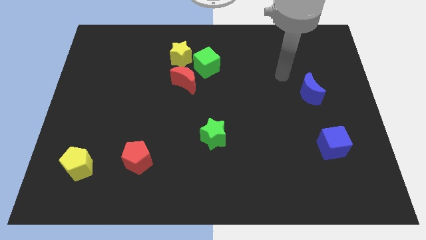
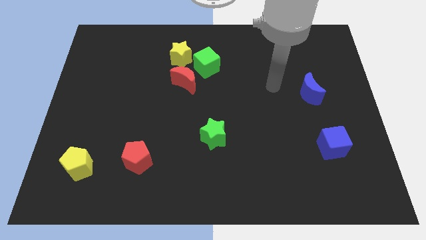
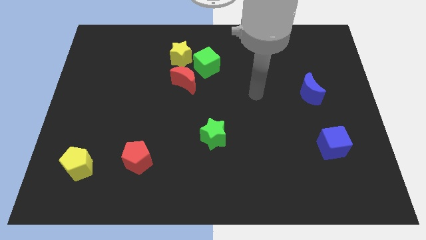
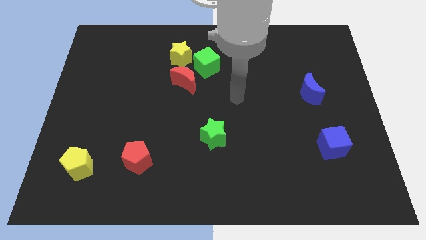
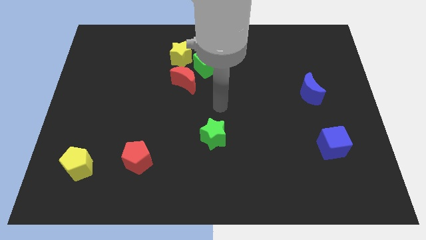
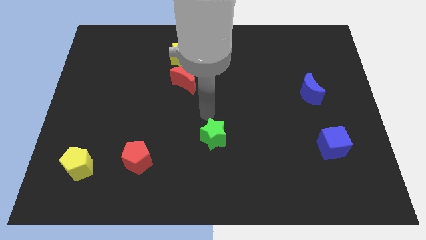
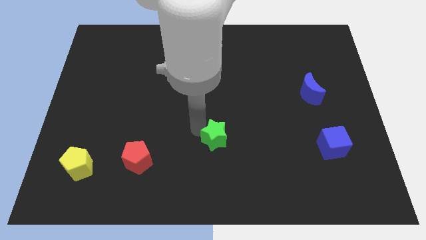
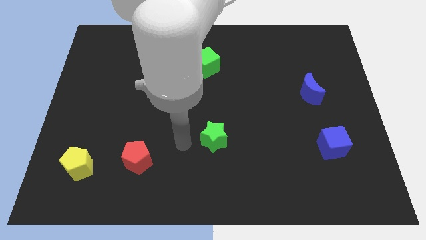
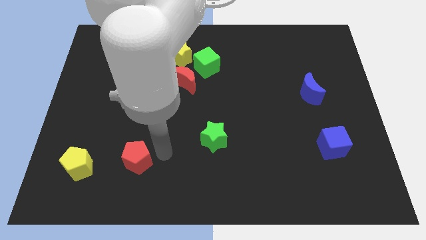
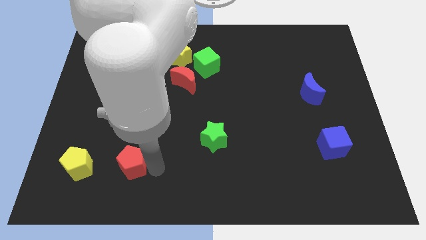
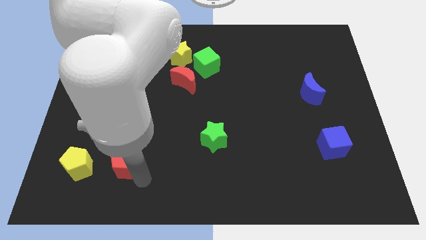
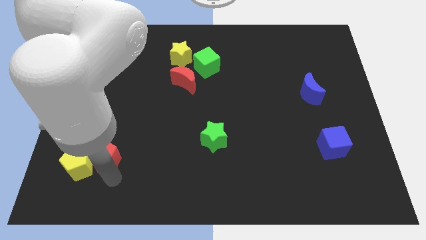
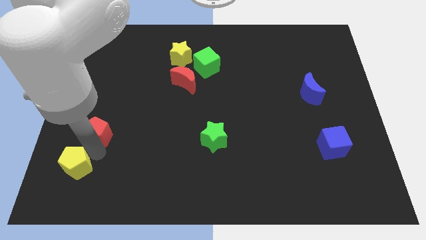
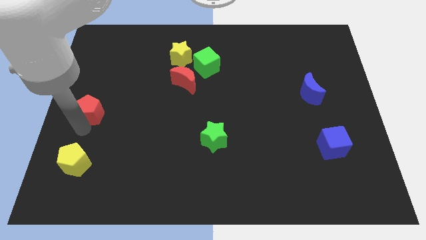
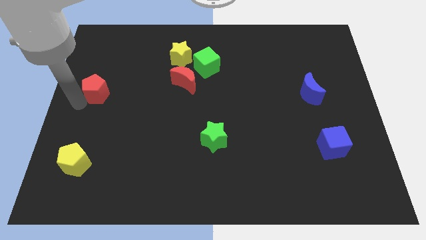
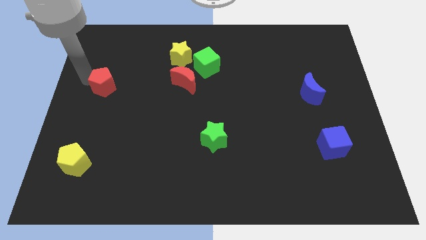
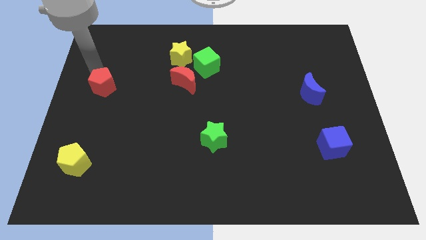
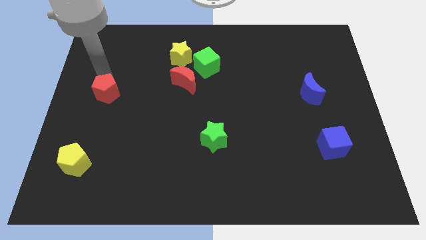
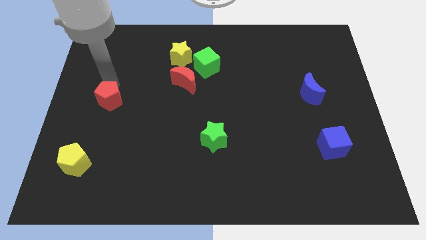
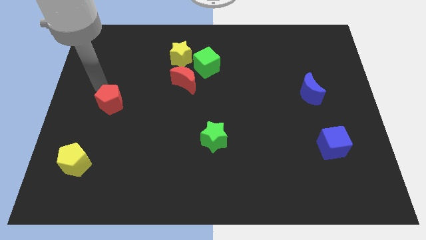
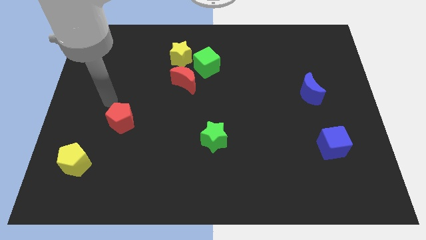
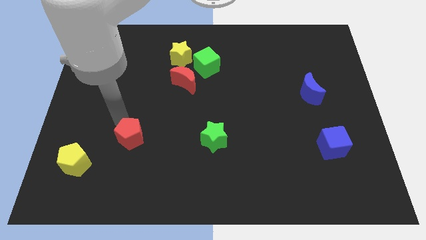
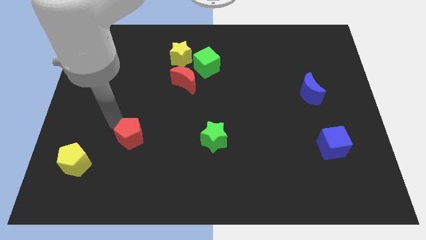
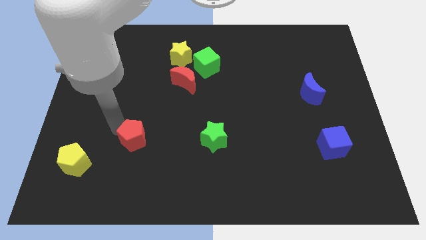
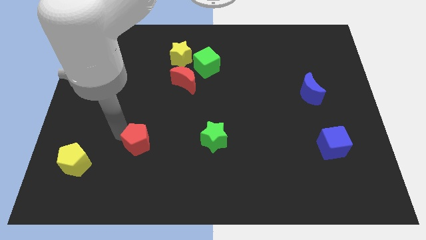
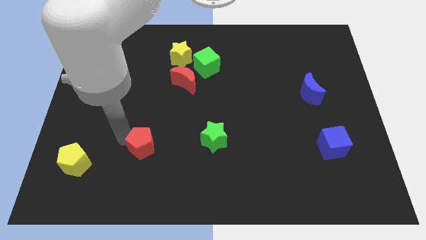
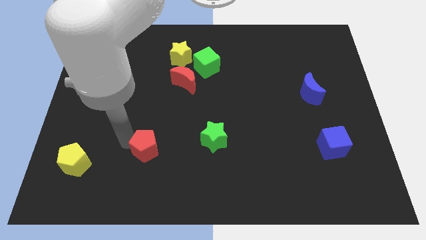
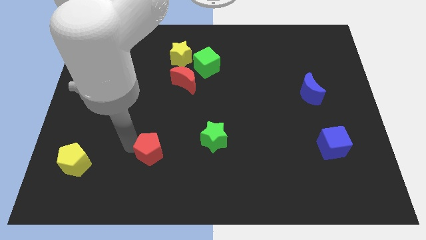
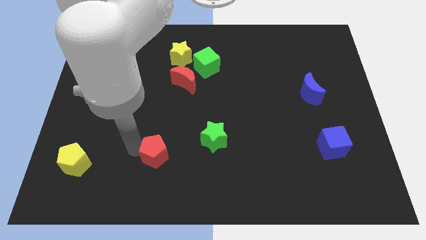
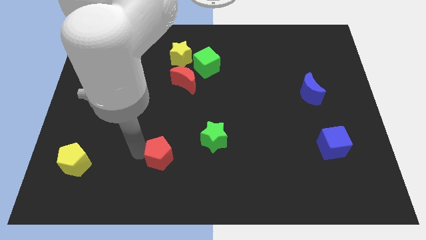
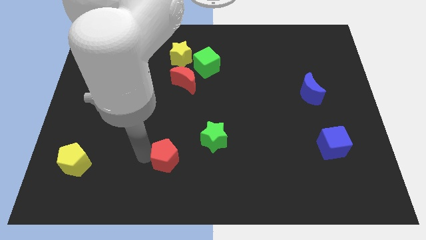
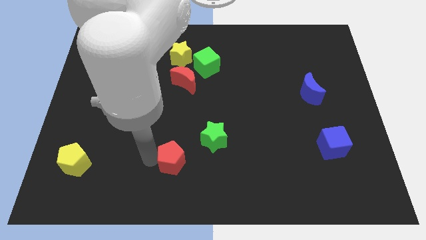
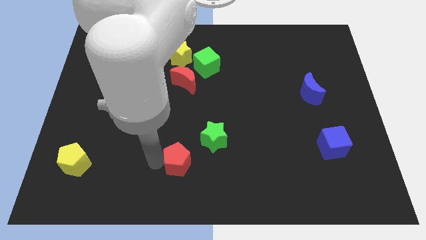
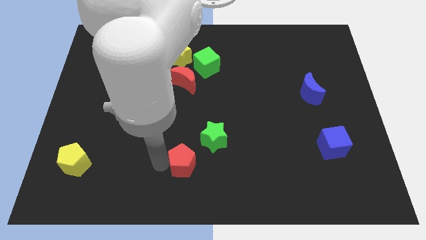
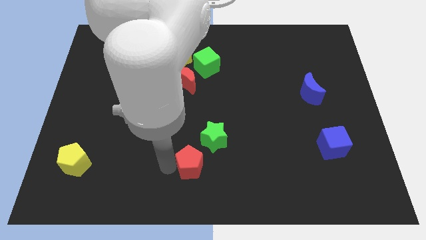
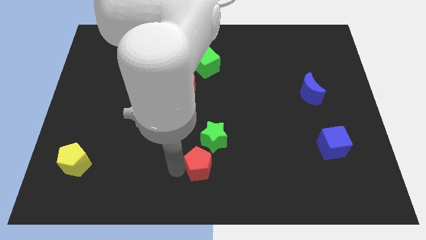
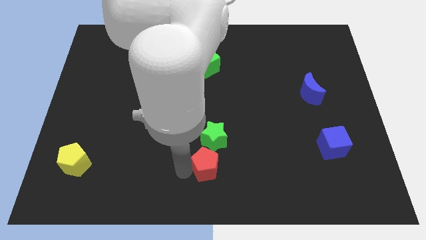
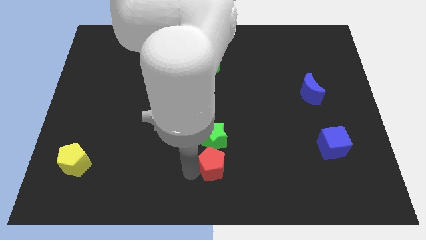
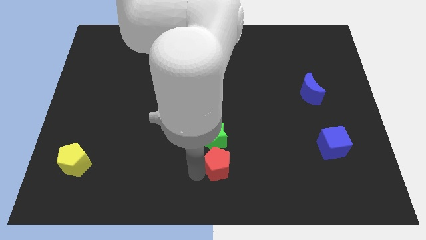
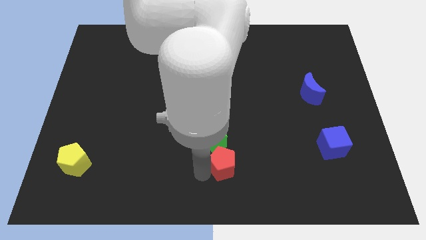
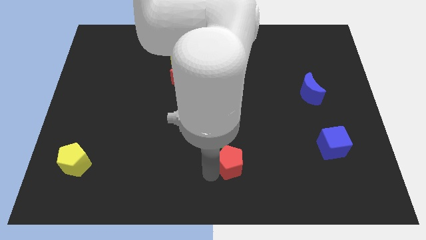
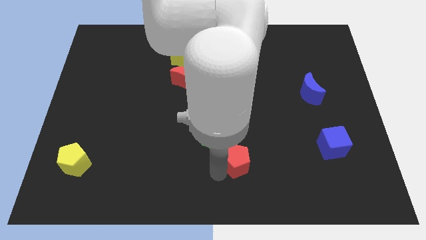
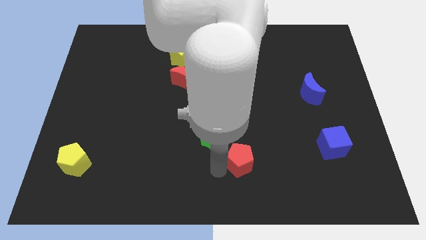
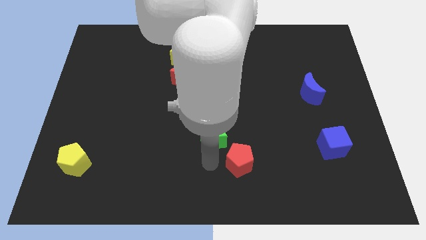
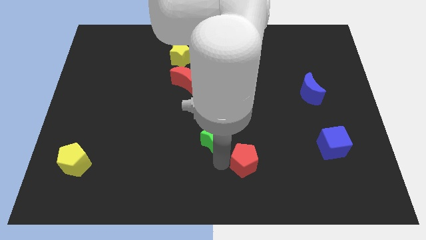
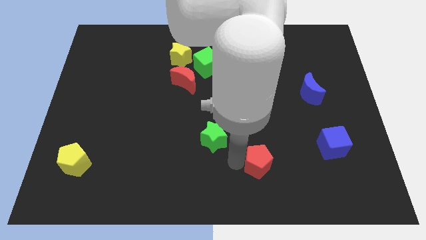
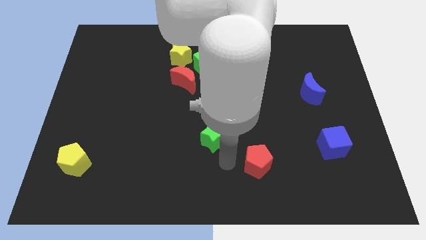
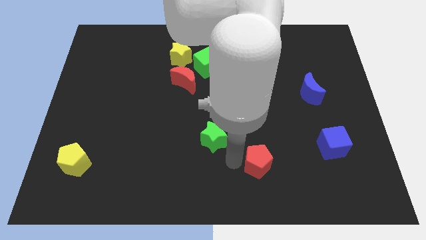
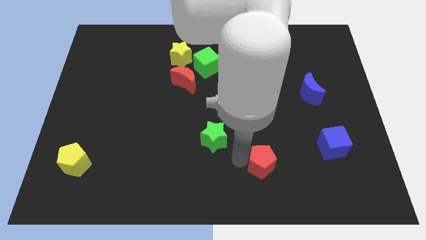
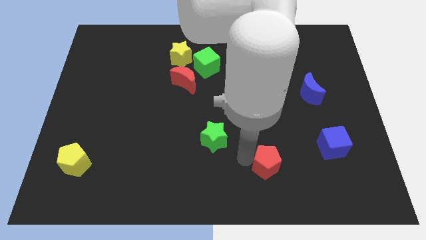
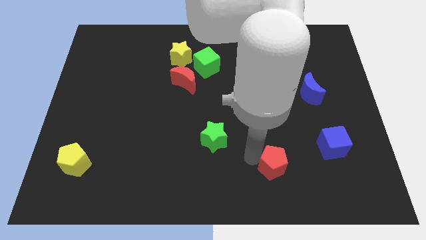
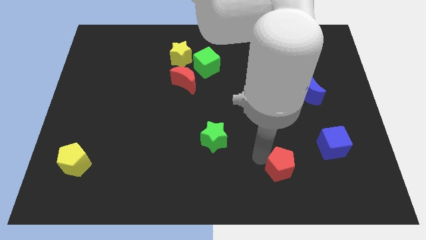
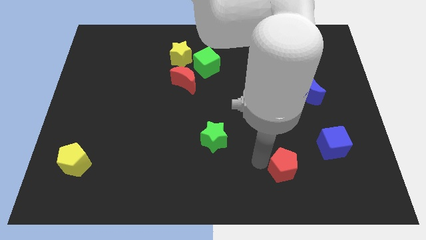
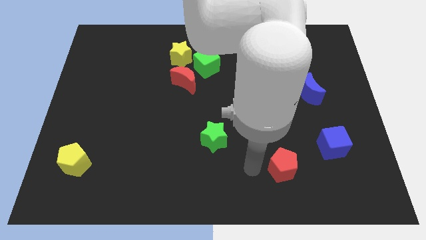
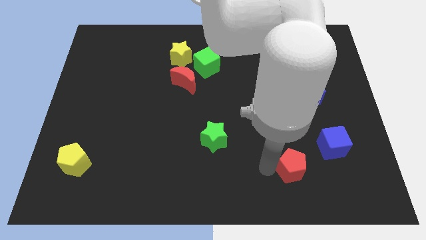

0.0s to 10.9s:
put the red pentagon to the bottom left side of the blue cube

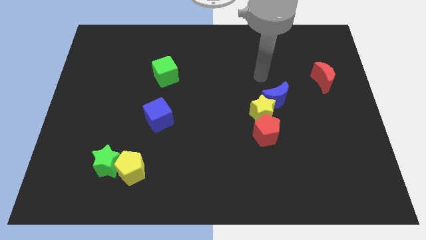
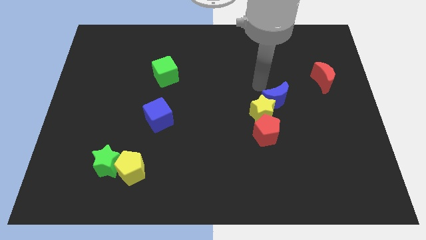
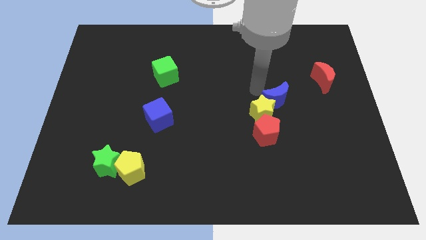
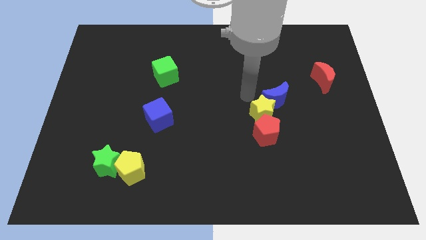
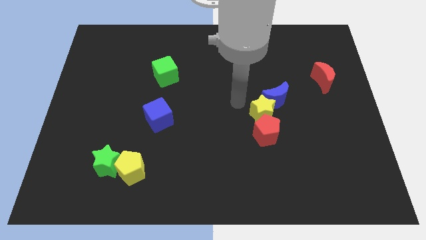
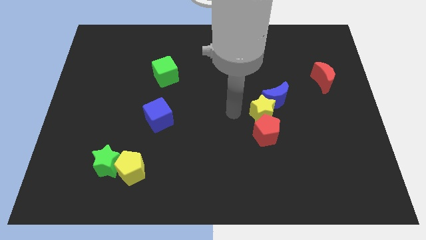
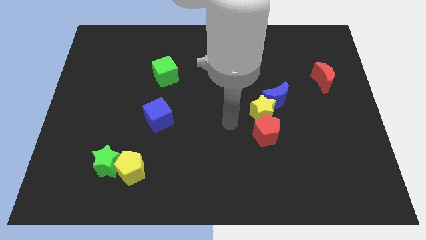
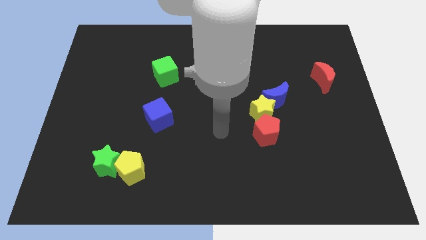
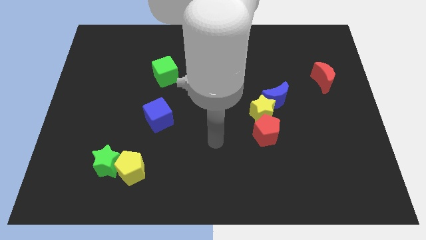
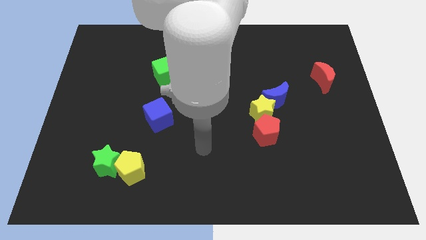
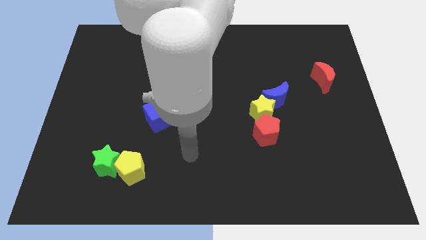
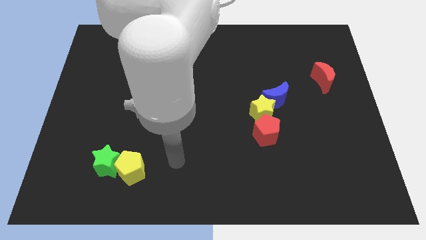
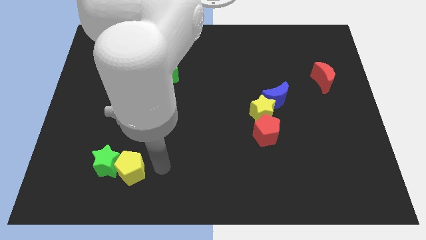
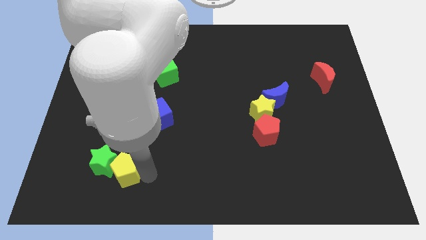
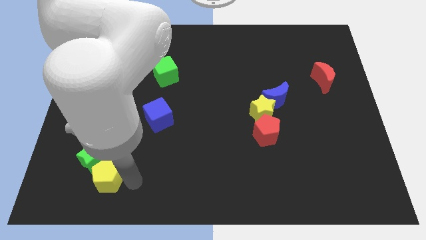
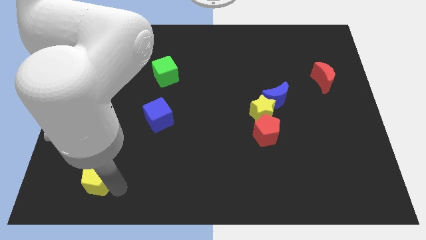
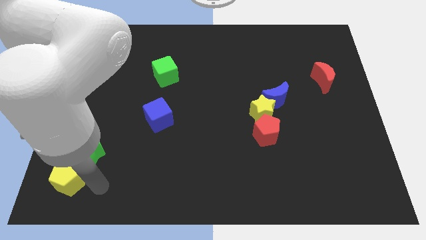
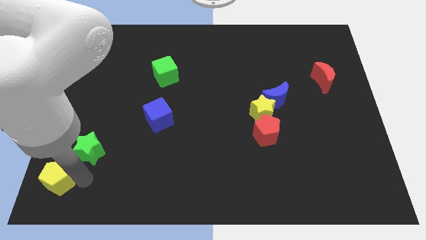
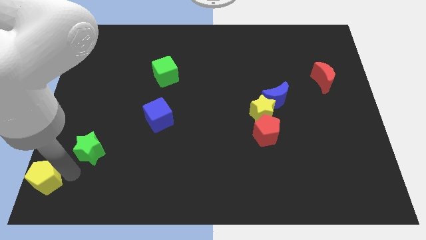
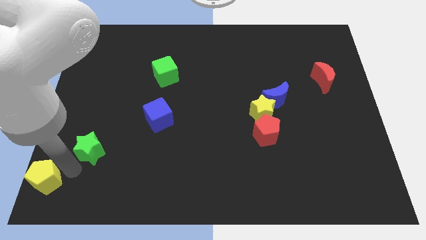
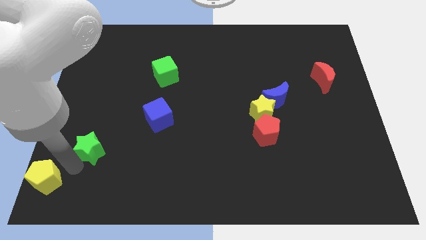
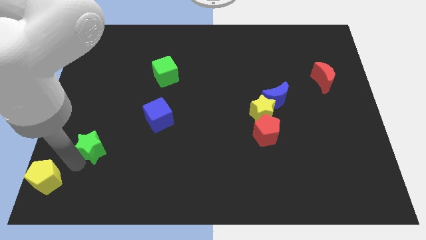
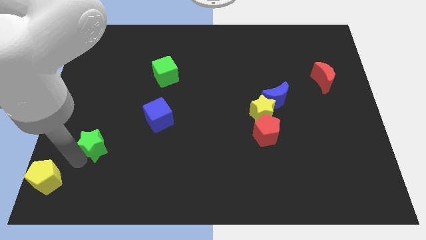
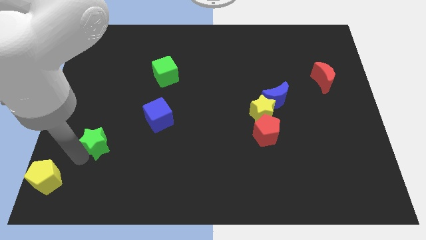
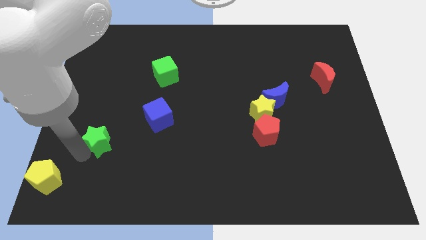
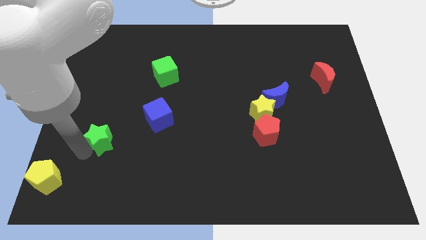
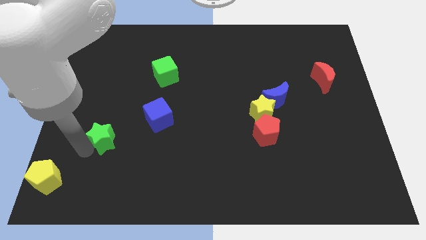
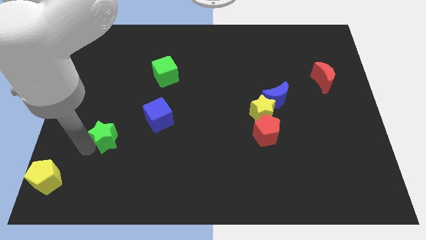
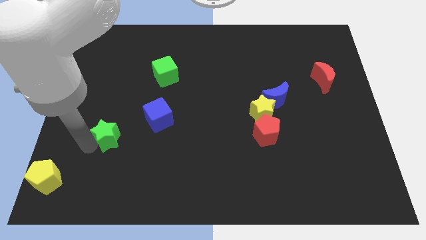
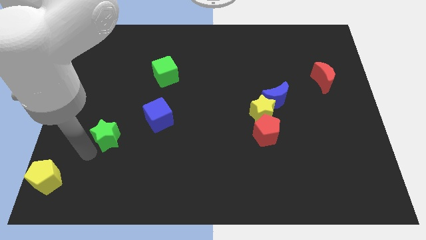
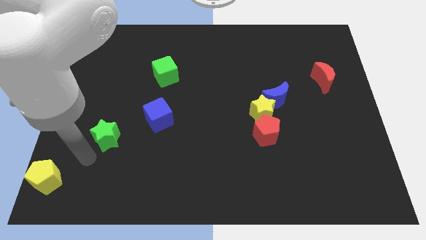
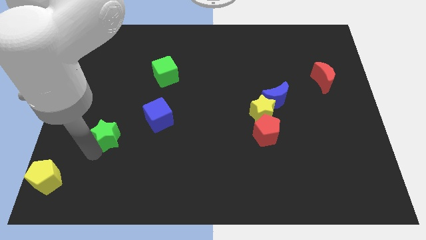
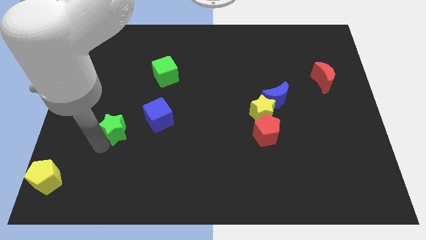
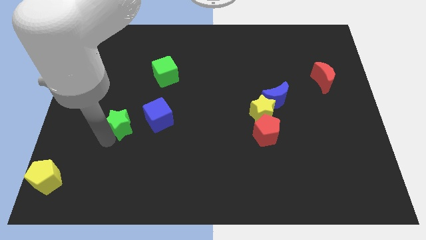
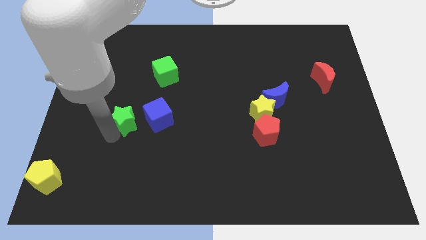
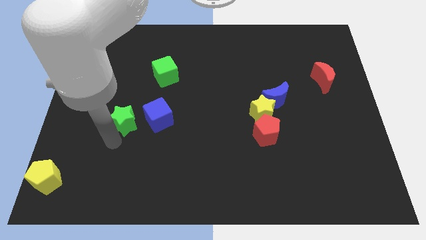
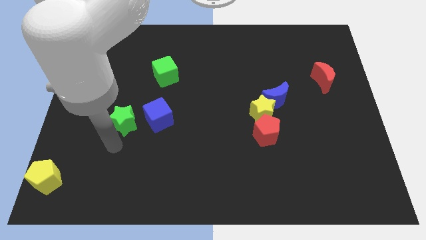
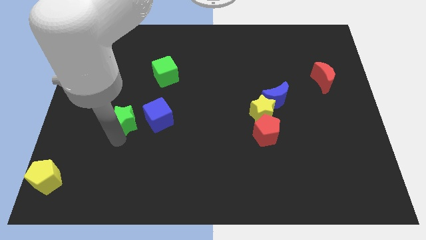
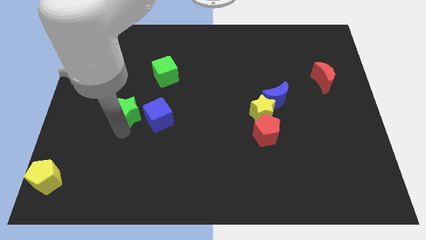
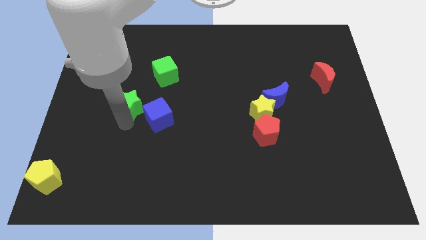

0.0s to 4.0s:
move the green star diagonally down and to the left of the green cube
